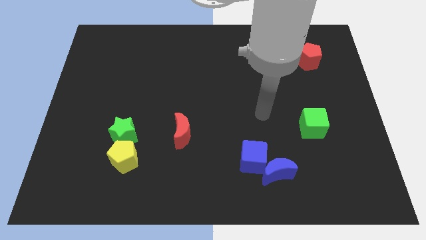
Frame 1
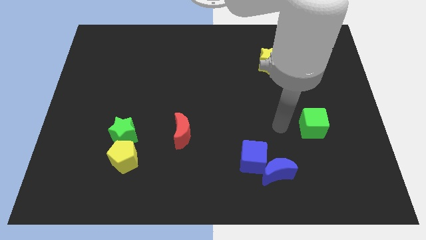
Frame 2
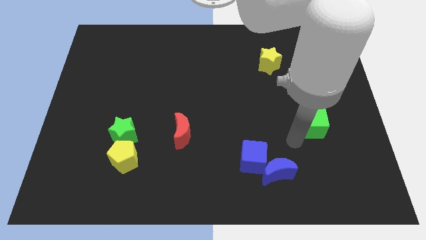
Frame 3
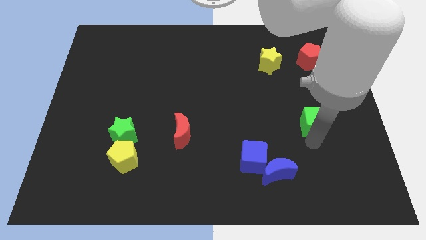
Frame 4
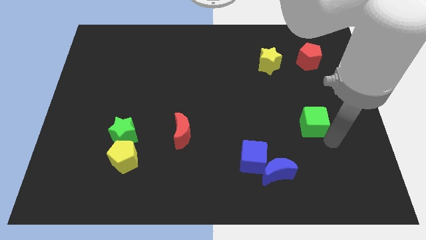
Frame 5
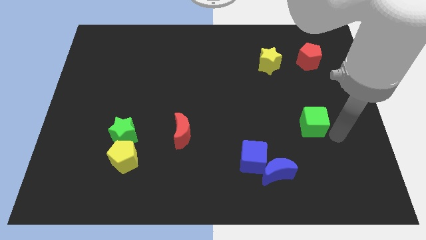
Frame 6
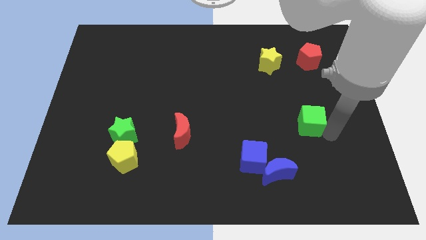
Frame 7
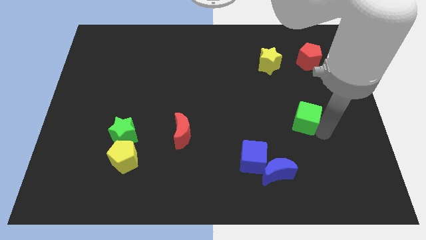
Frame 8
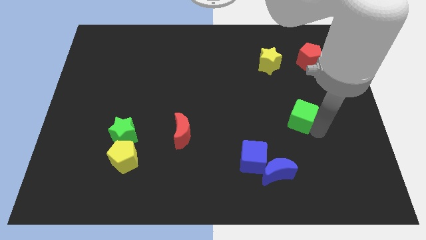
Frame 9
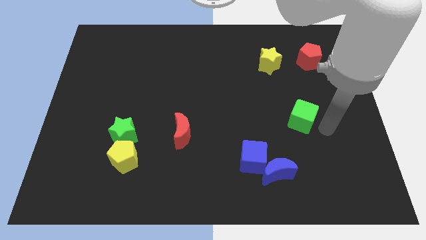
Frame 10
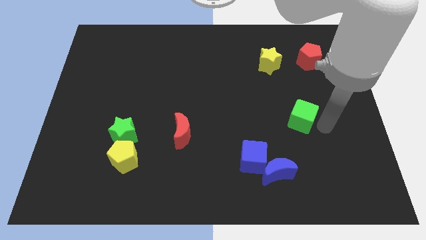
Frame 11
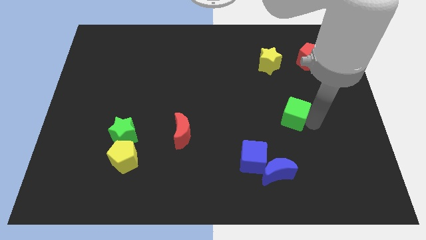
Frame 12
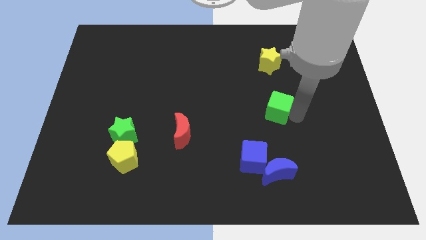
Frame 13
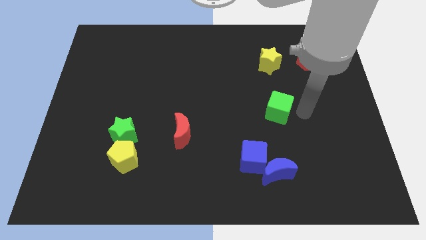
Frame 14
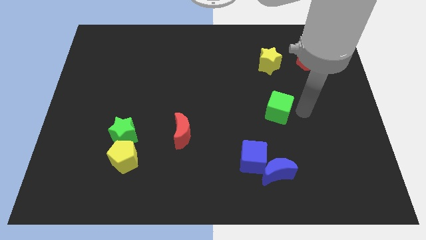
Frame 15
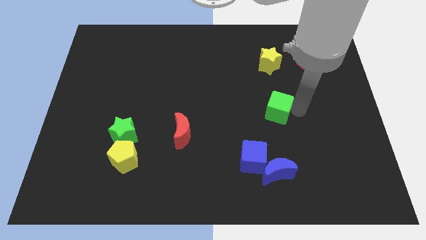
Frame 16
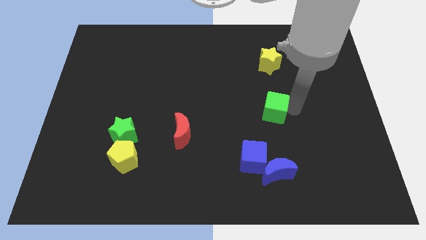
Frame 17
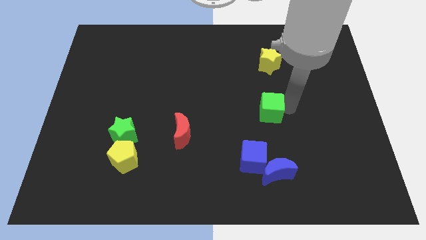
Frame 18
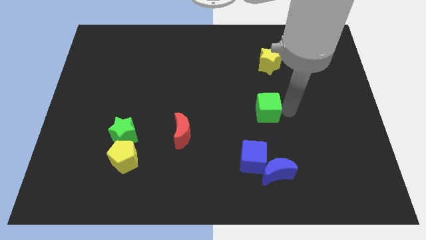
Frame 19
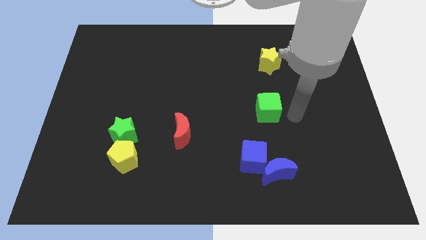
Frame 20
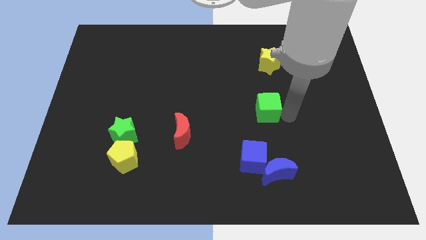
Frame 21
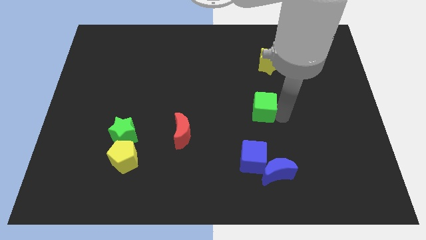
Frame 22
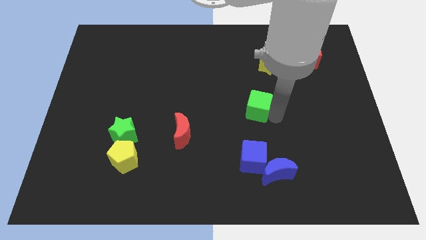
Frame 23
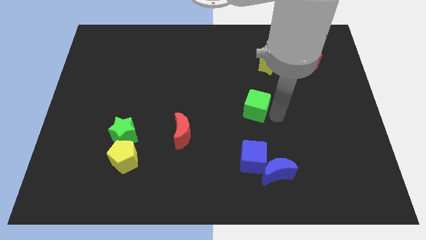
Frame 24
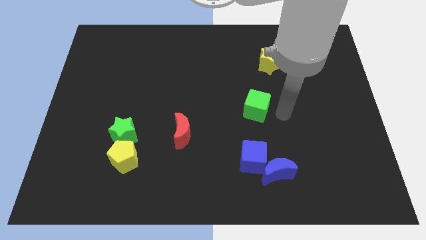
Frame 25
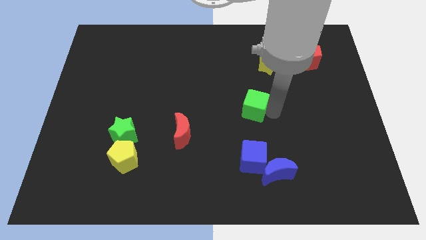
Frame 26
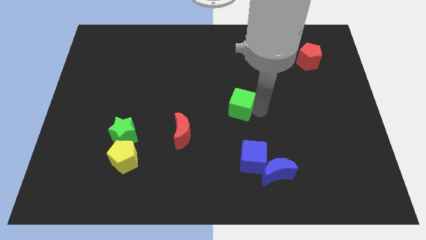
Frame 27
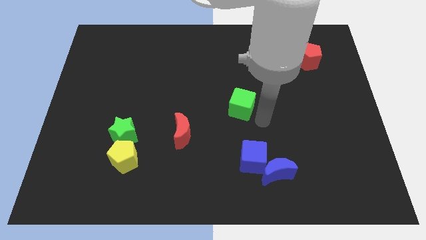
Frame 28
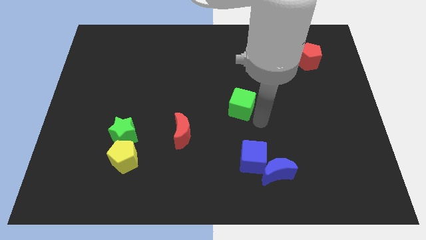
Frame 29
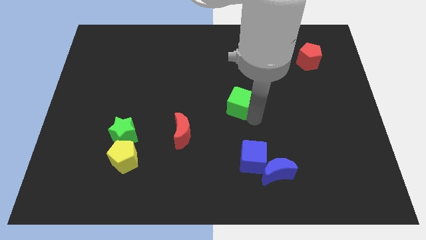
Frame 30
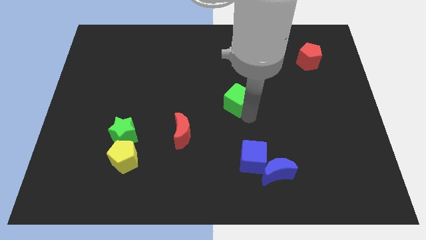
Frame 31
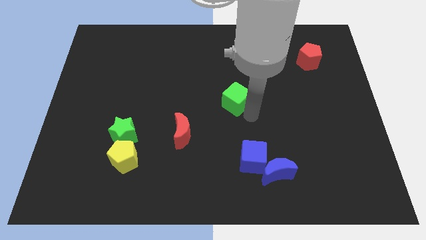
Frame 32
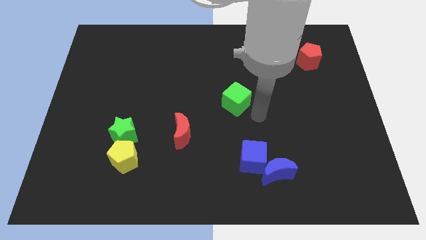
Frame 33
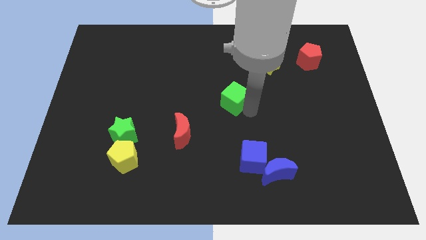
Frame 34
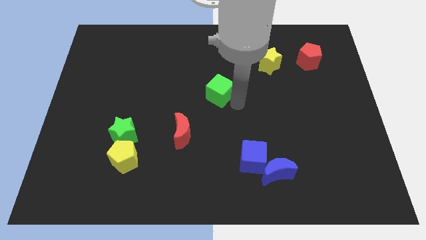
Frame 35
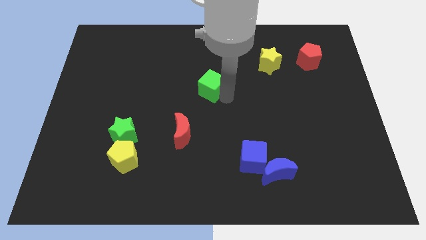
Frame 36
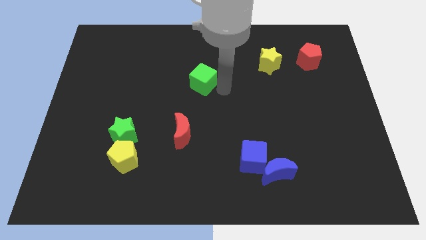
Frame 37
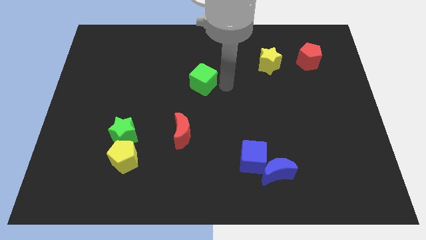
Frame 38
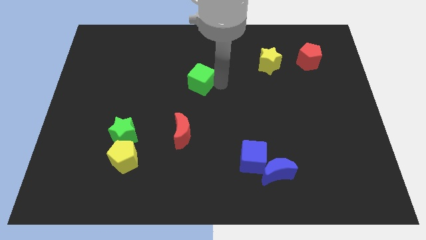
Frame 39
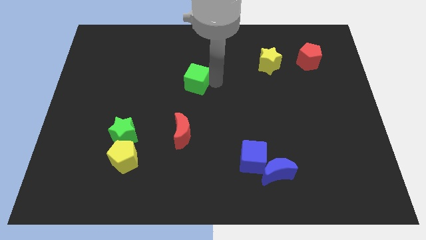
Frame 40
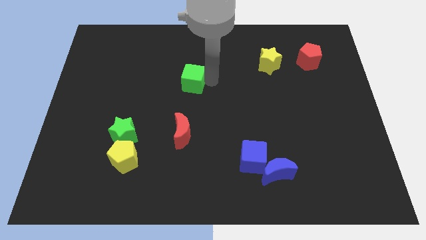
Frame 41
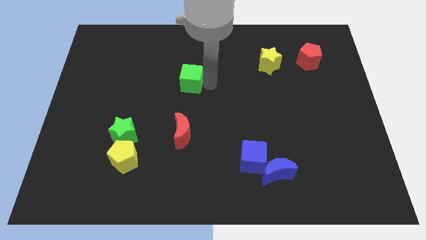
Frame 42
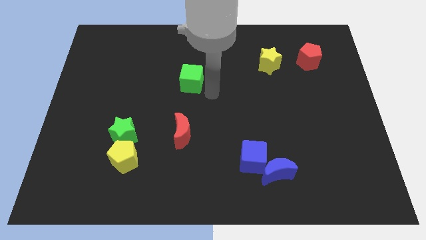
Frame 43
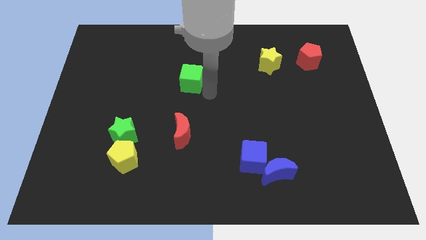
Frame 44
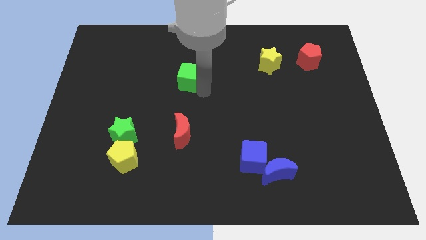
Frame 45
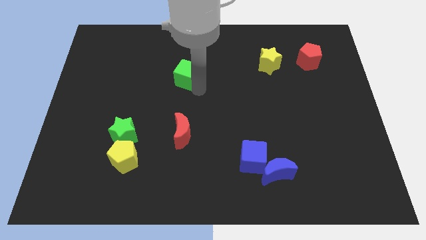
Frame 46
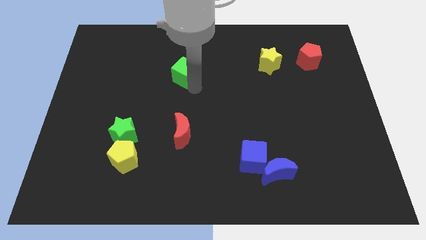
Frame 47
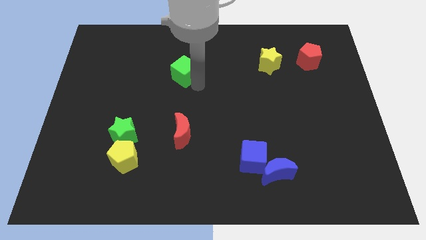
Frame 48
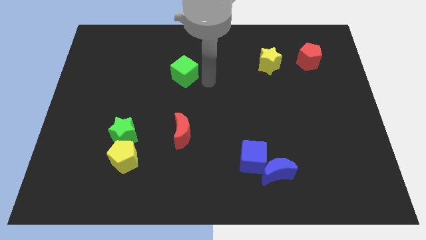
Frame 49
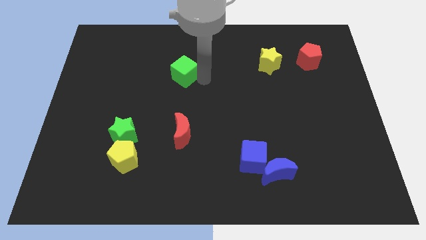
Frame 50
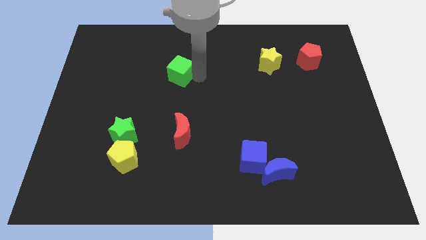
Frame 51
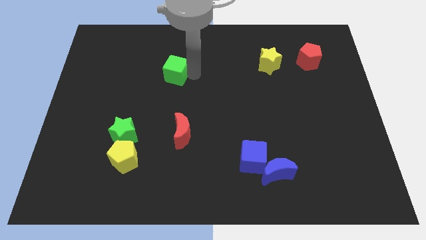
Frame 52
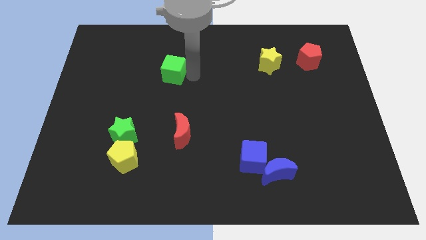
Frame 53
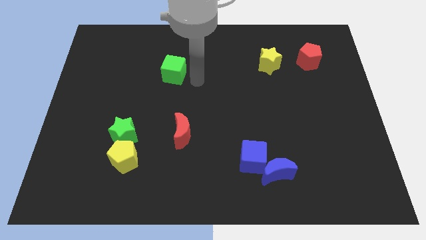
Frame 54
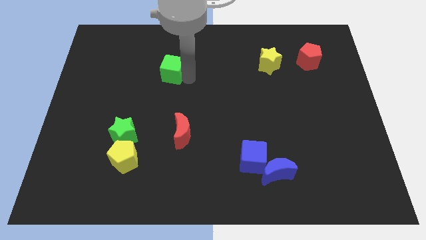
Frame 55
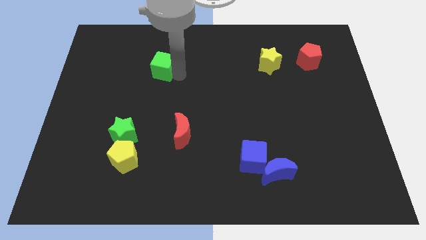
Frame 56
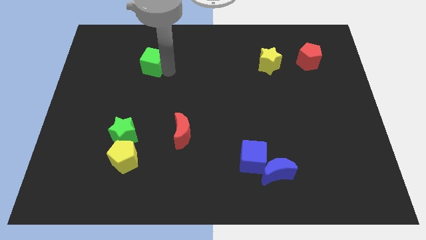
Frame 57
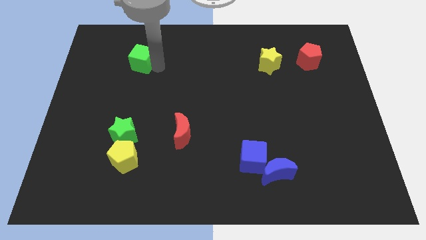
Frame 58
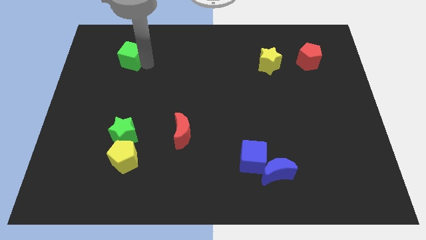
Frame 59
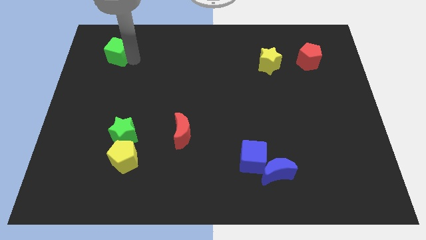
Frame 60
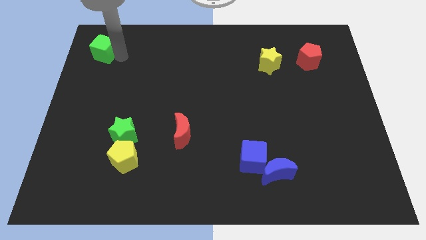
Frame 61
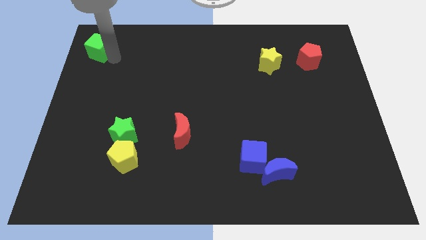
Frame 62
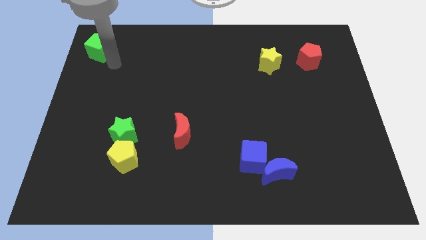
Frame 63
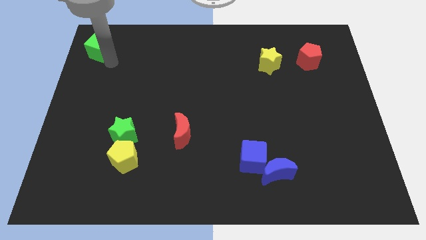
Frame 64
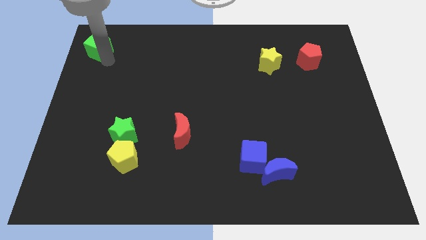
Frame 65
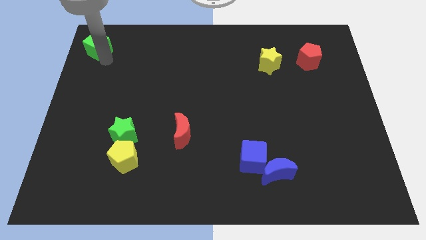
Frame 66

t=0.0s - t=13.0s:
push the green cube to the top left corner
